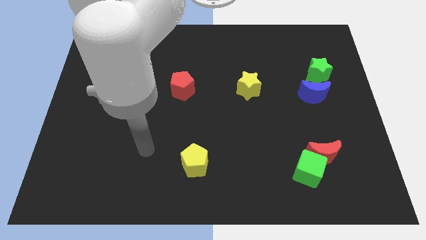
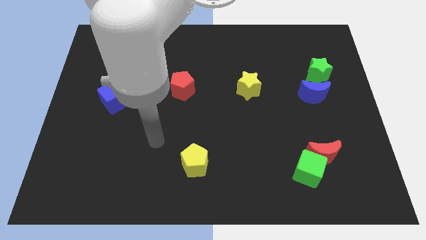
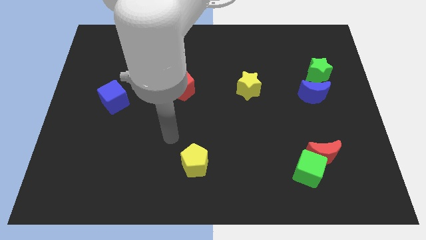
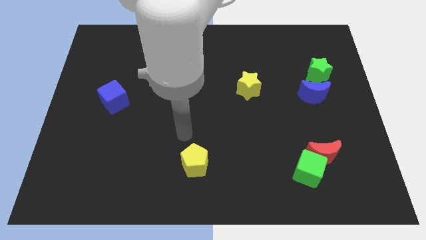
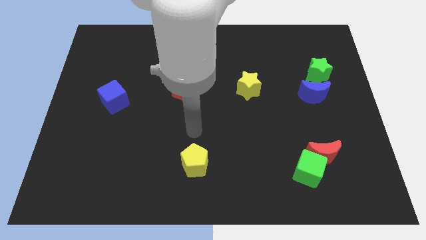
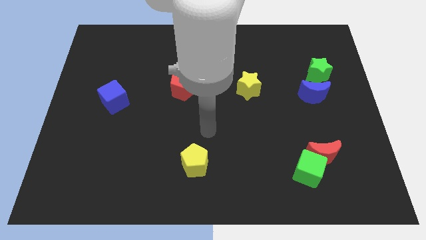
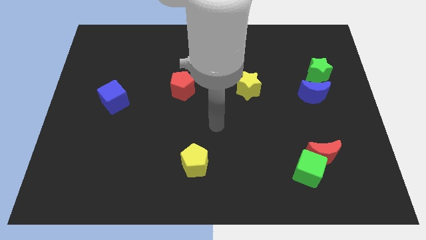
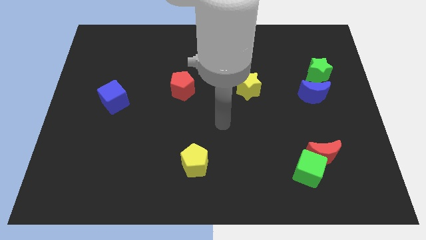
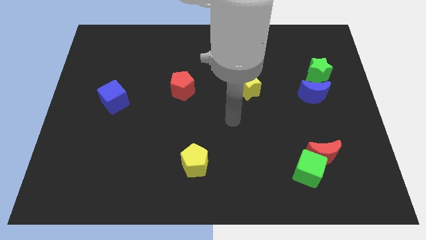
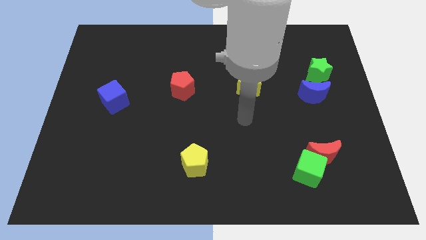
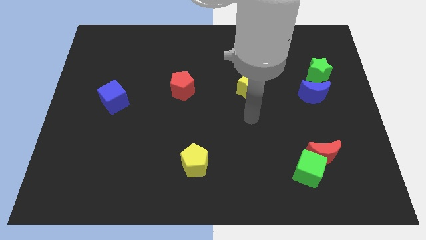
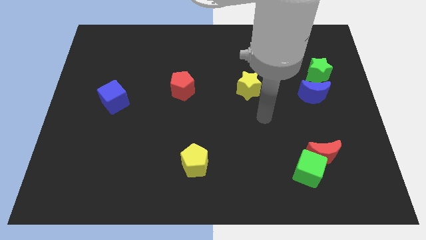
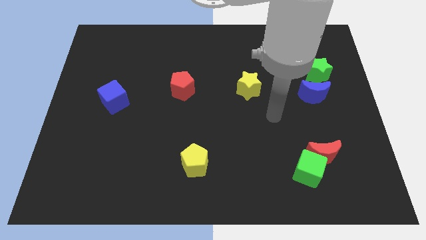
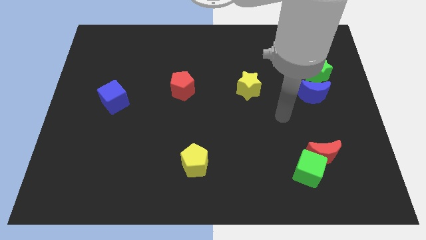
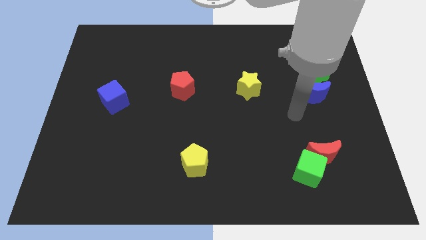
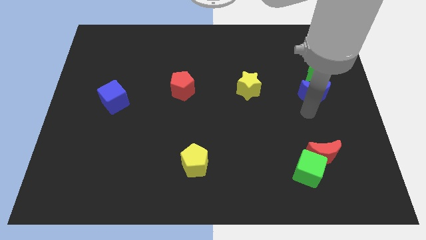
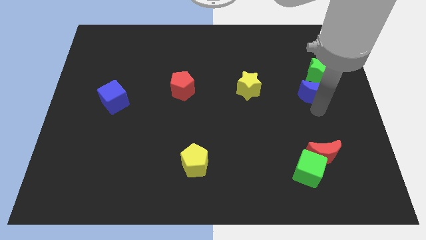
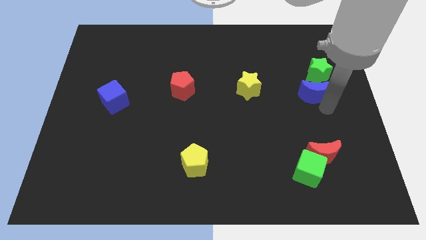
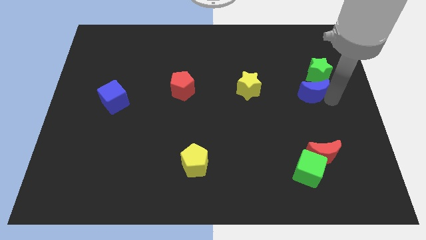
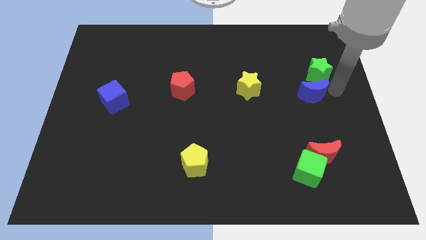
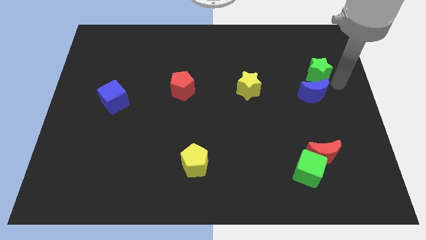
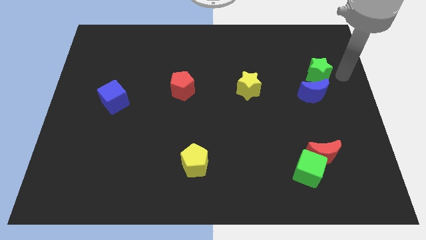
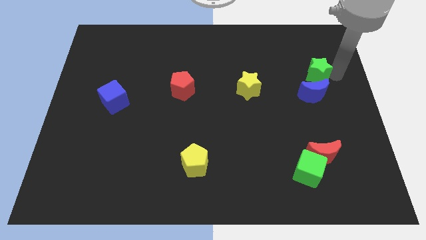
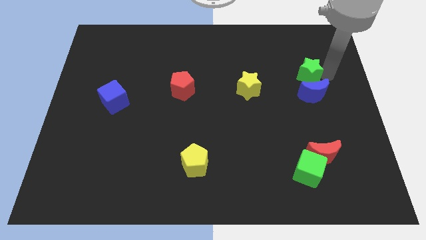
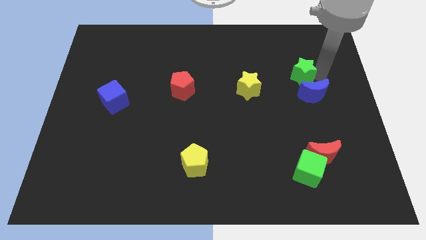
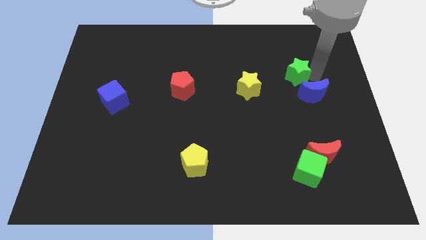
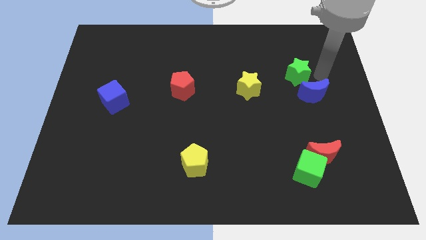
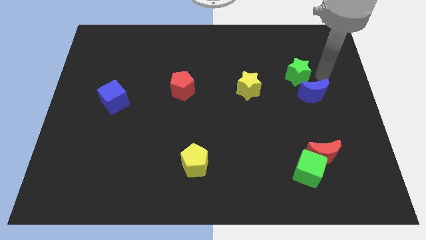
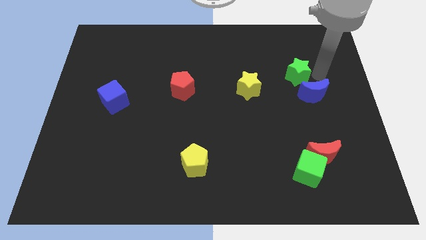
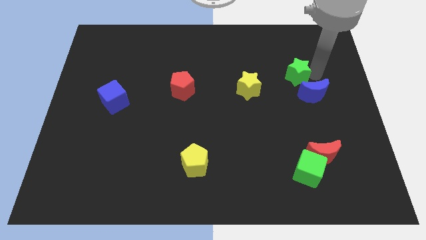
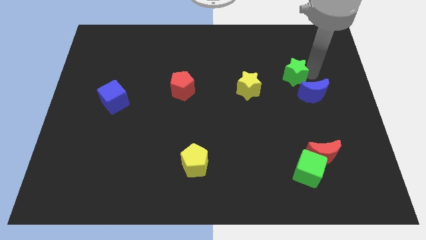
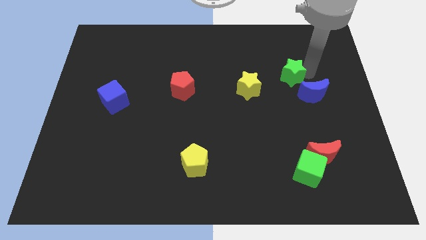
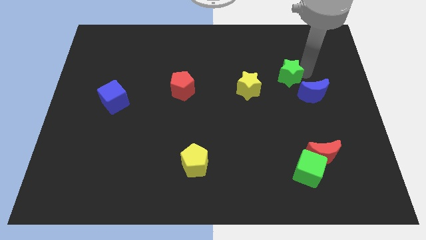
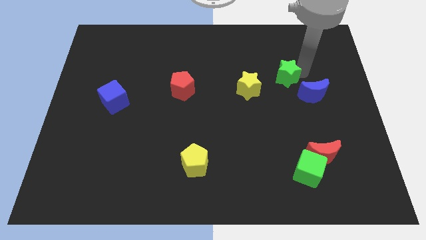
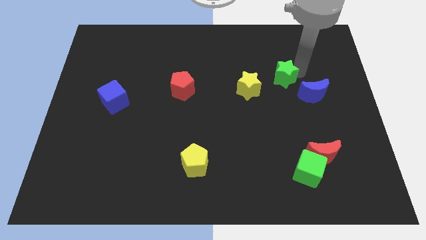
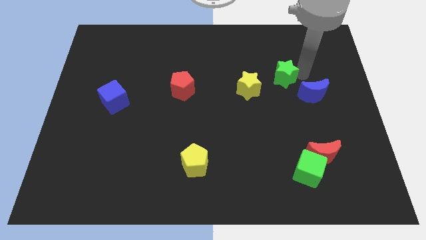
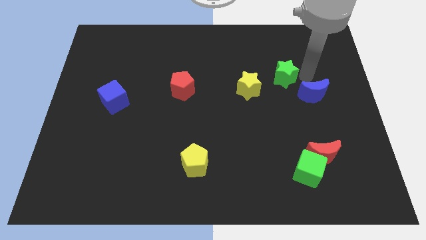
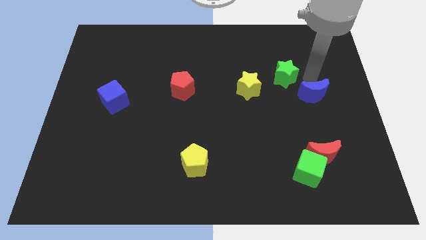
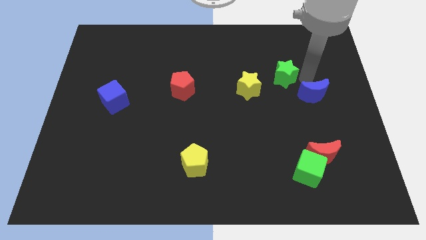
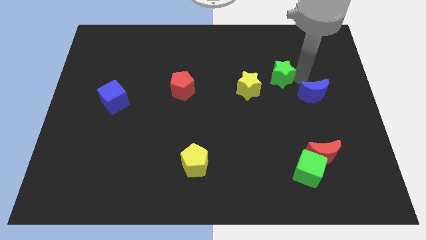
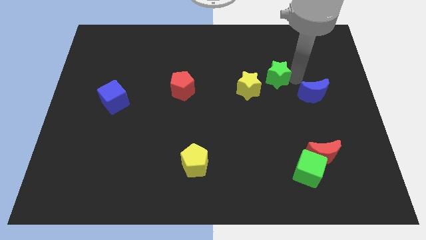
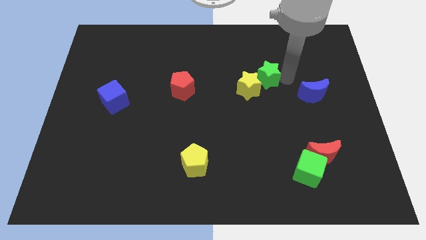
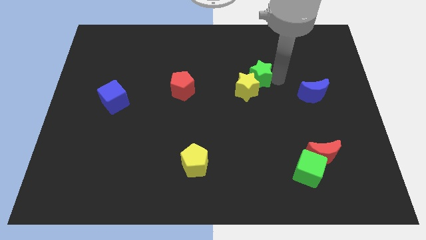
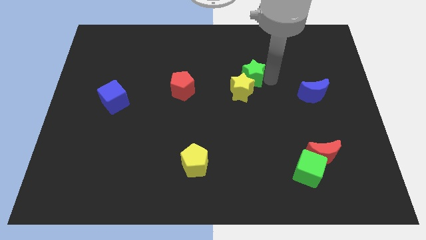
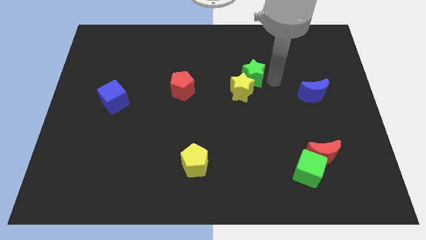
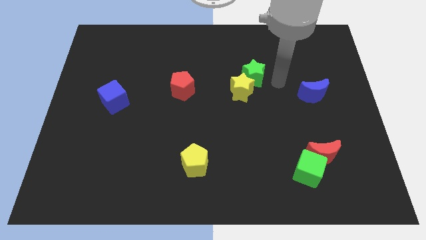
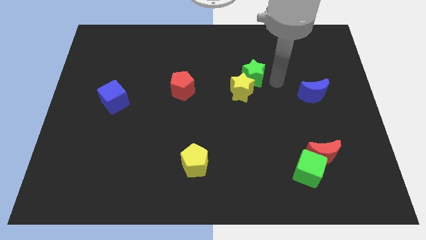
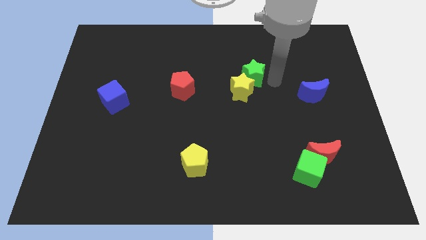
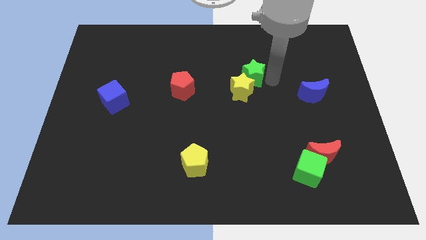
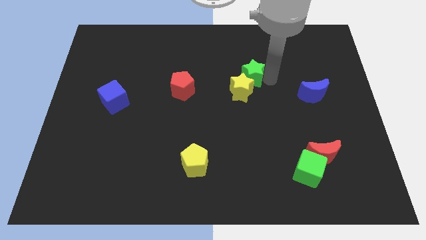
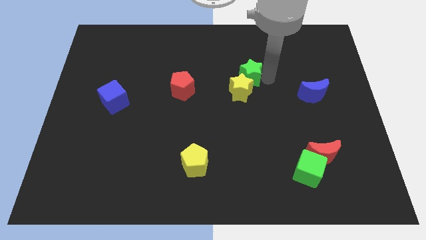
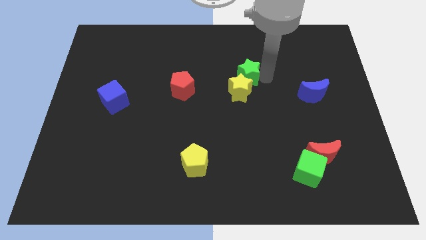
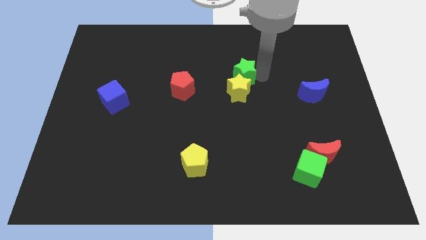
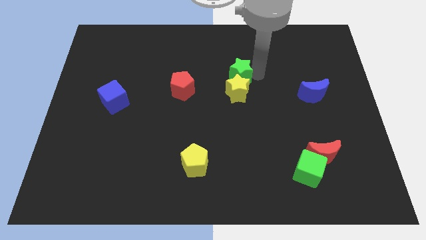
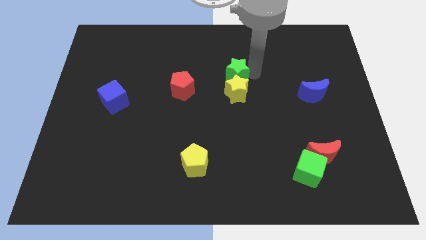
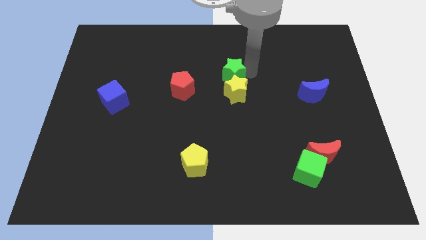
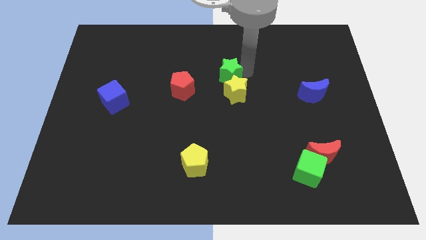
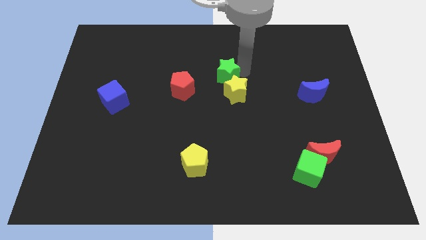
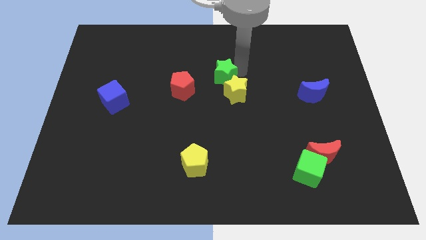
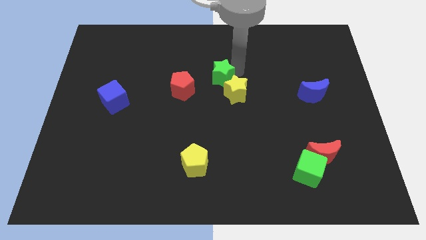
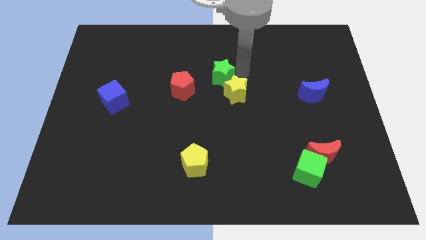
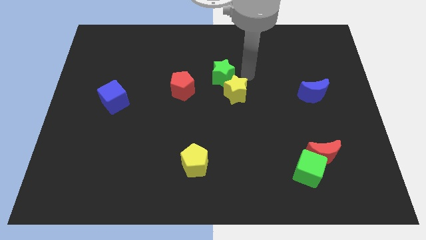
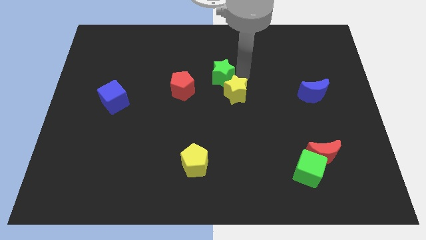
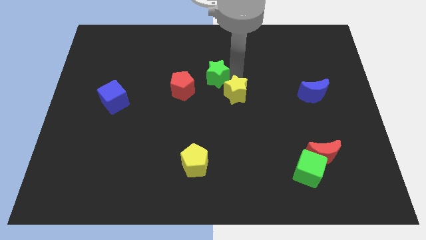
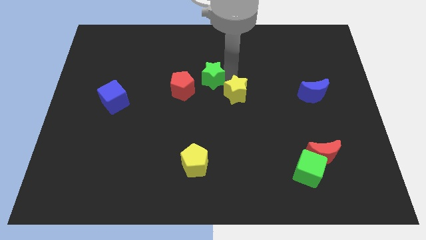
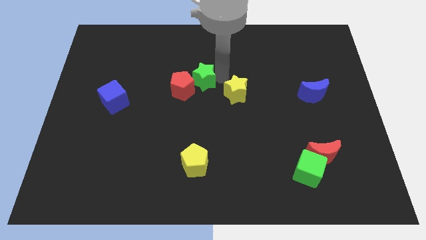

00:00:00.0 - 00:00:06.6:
slide the green star close to the red pentagon

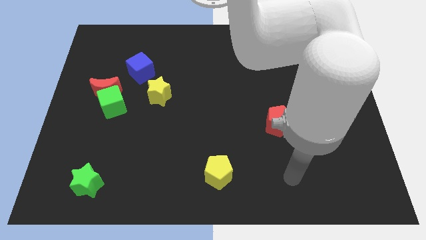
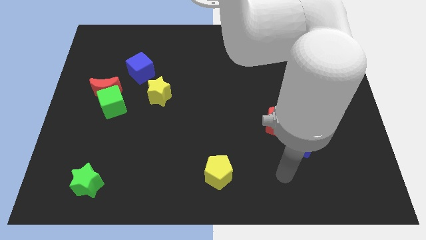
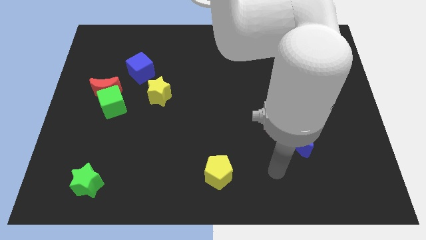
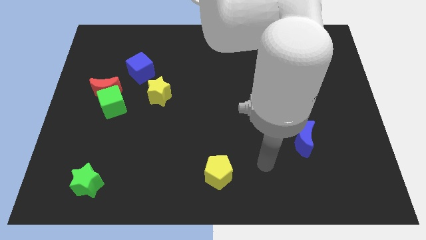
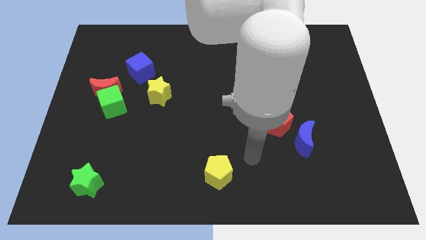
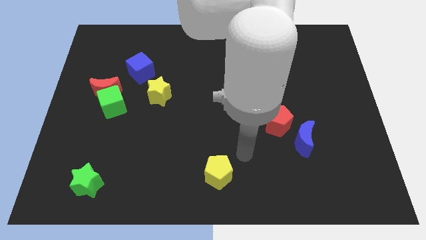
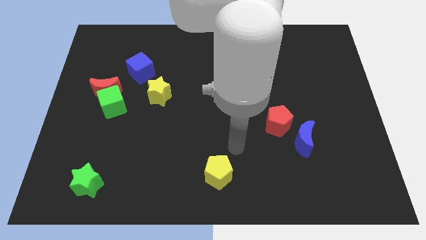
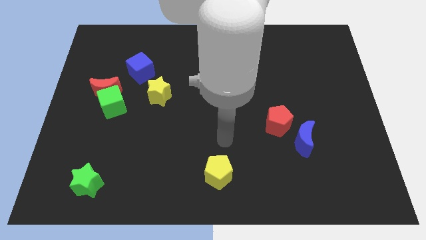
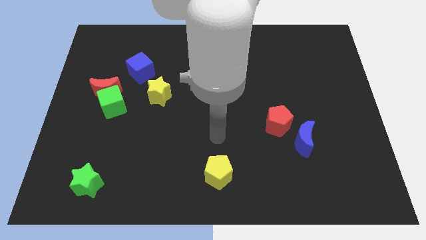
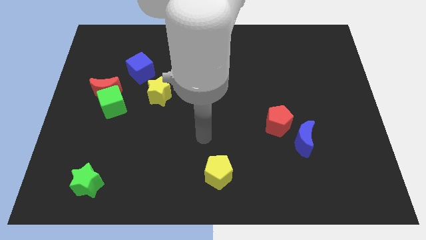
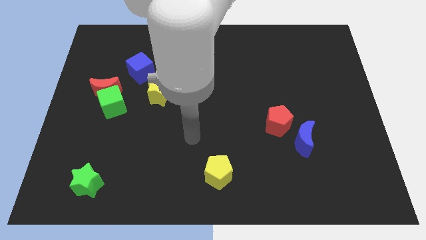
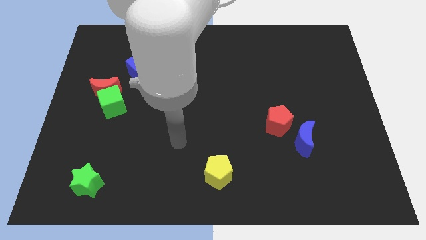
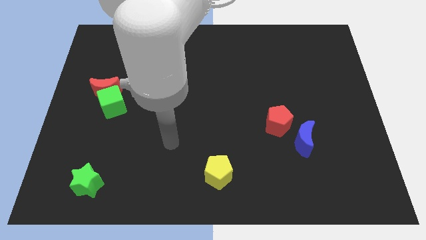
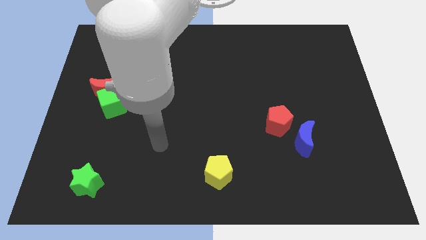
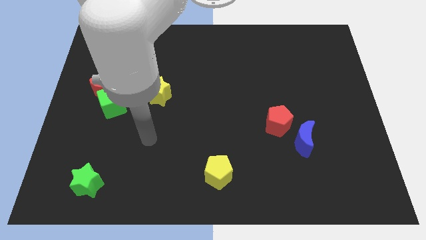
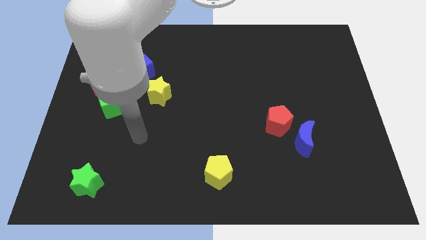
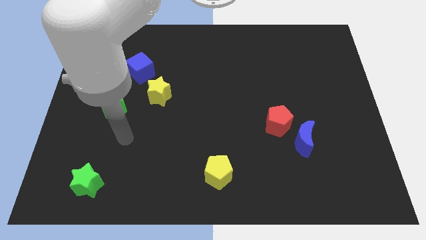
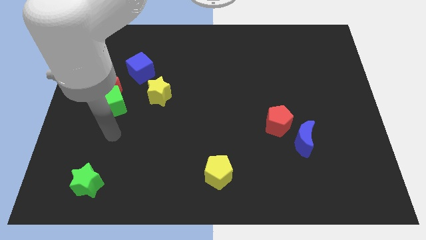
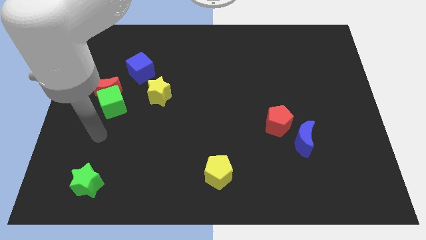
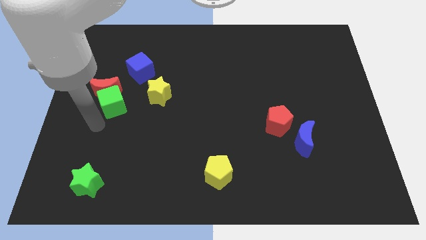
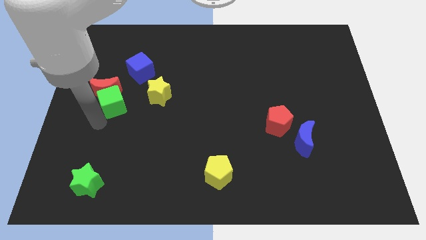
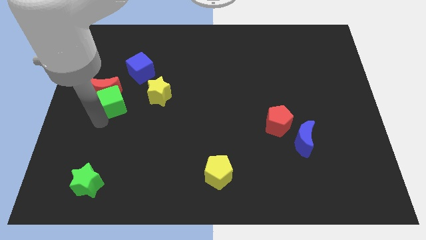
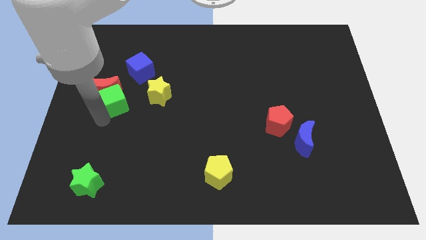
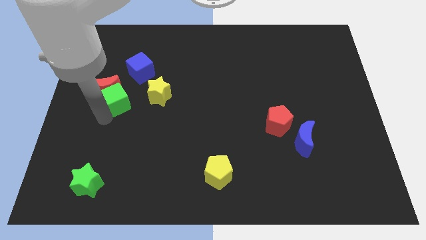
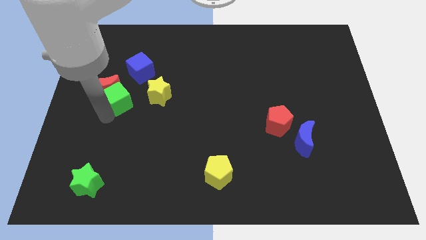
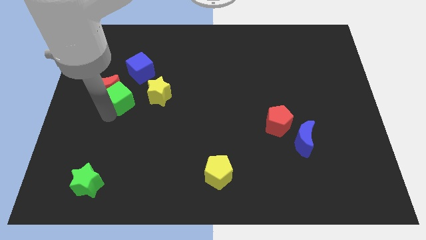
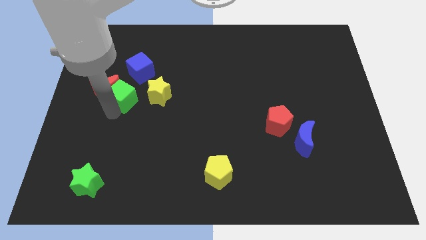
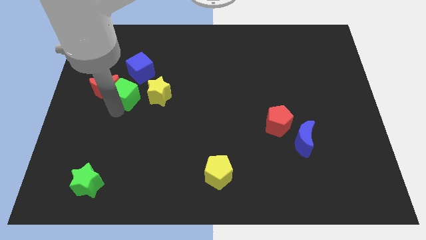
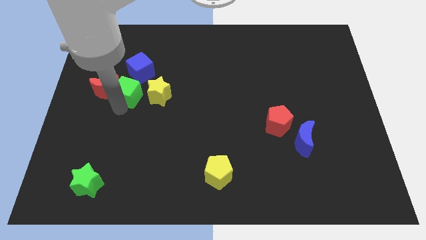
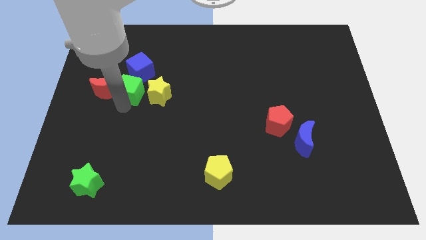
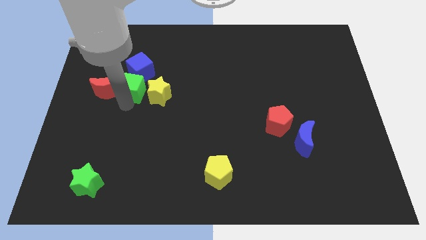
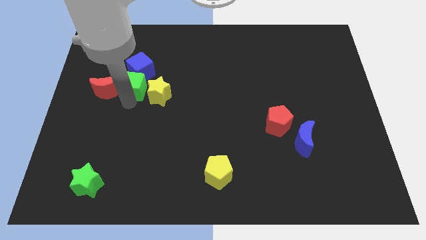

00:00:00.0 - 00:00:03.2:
move the green cube next to the blue cube
